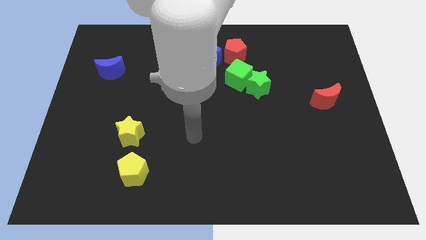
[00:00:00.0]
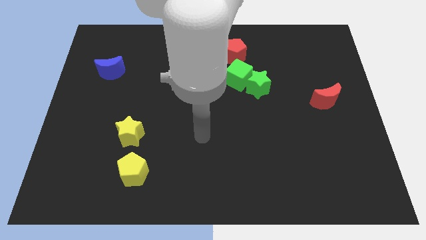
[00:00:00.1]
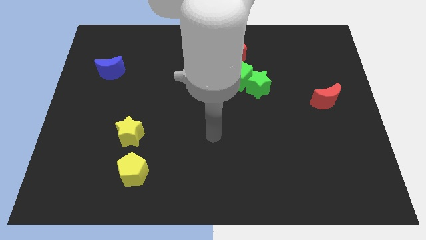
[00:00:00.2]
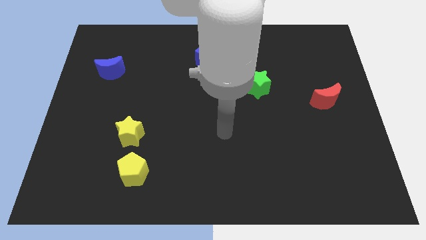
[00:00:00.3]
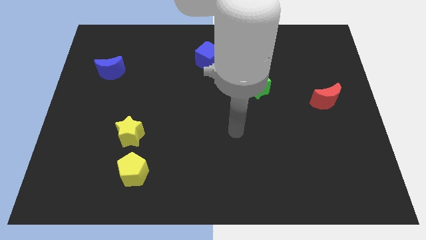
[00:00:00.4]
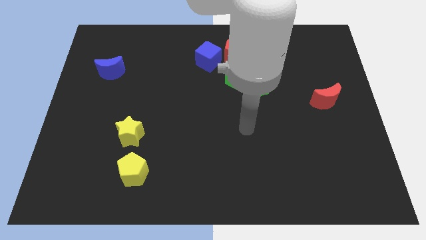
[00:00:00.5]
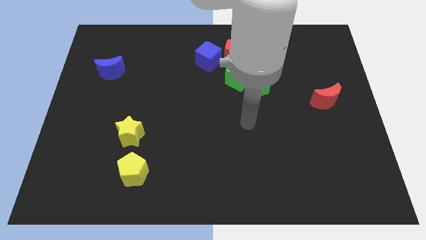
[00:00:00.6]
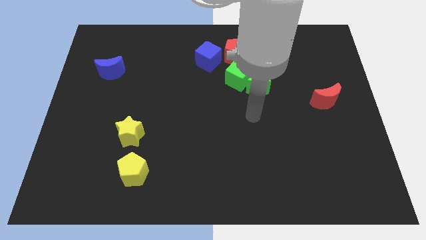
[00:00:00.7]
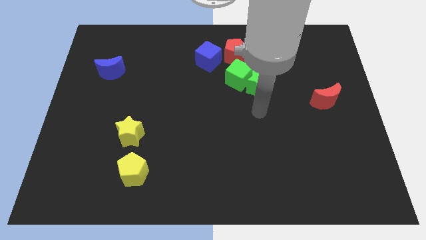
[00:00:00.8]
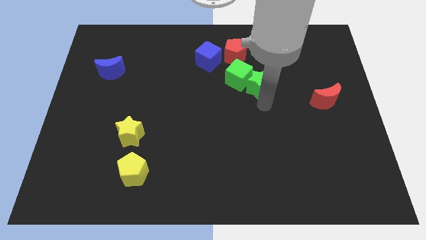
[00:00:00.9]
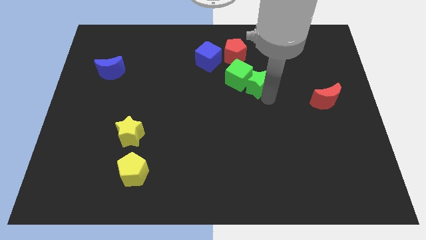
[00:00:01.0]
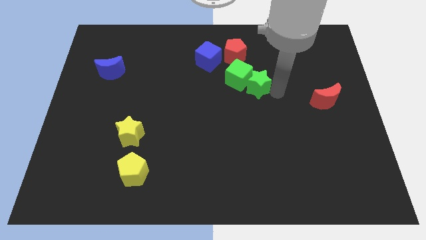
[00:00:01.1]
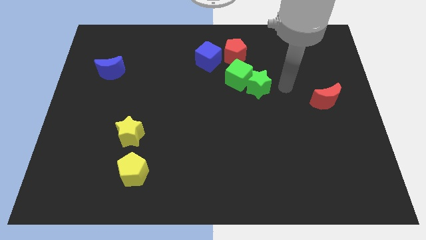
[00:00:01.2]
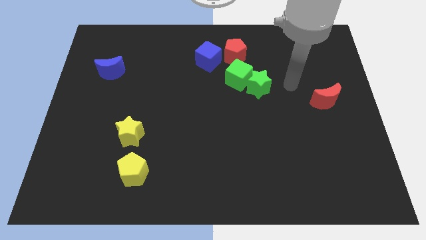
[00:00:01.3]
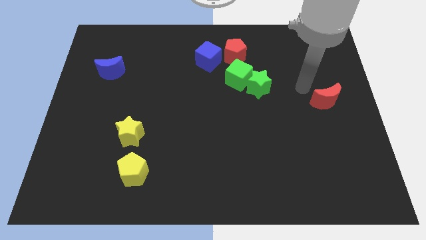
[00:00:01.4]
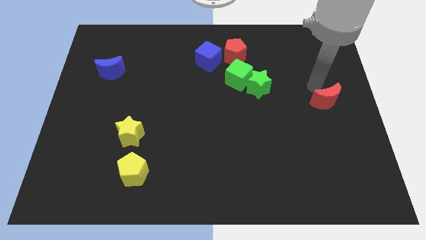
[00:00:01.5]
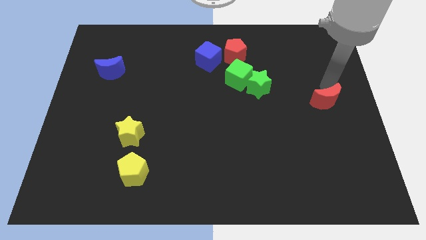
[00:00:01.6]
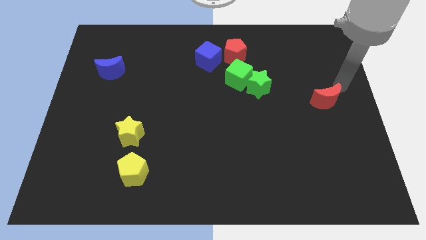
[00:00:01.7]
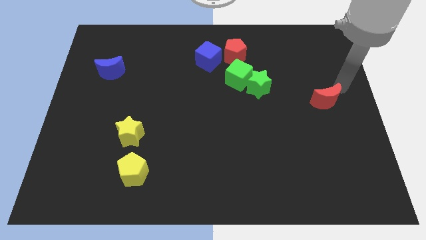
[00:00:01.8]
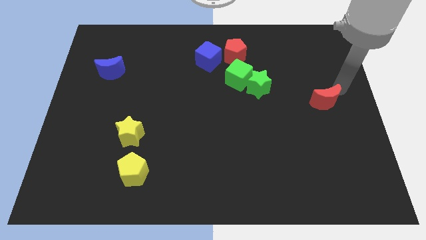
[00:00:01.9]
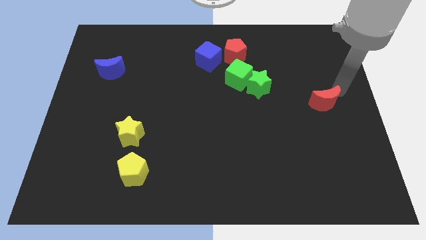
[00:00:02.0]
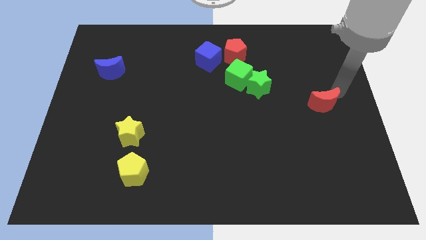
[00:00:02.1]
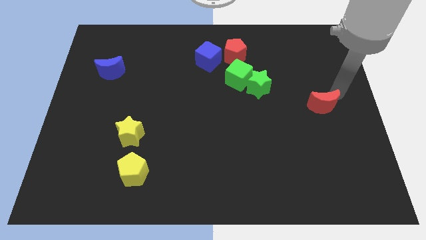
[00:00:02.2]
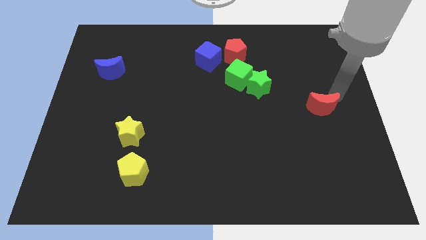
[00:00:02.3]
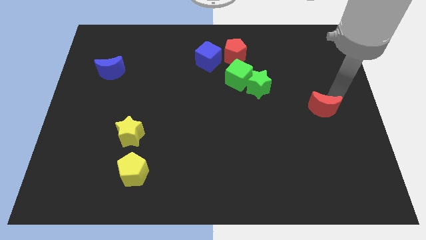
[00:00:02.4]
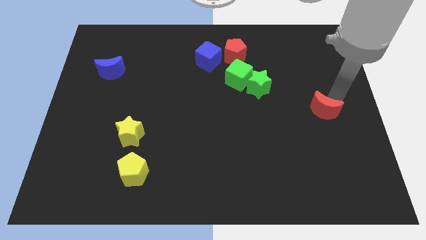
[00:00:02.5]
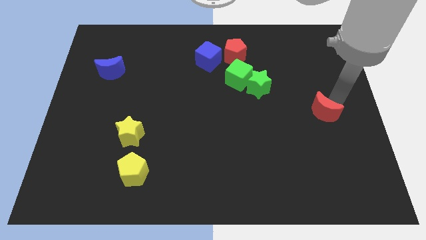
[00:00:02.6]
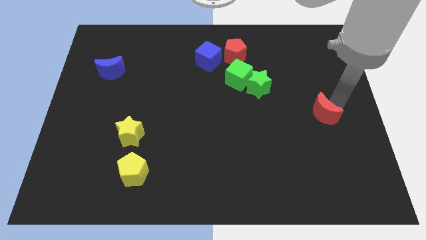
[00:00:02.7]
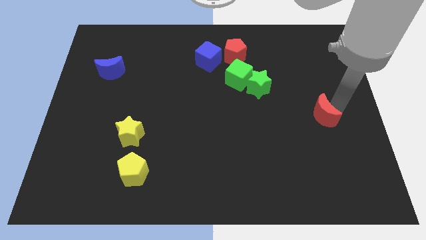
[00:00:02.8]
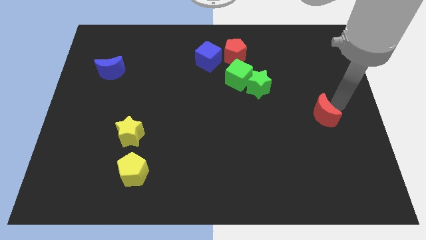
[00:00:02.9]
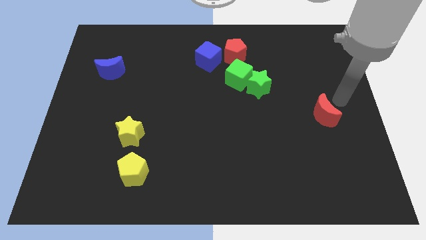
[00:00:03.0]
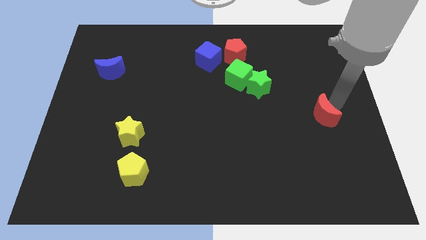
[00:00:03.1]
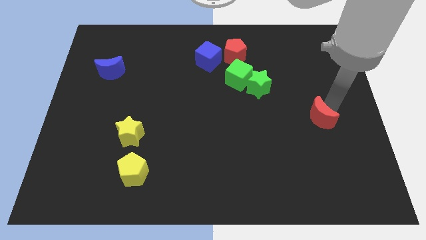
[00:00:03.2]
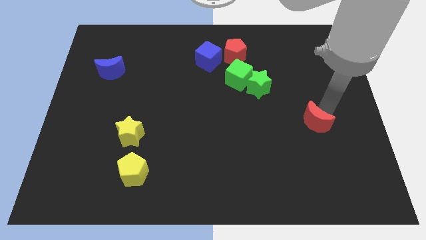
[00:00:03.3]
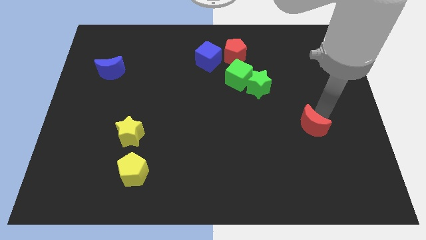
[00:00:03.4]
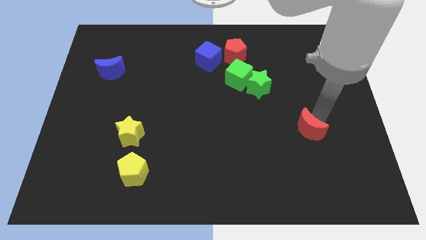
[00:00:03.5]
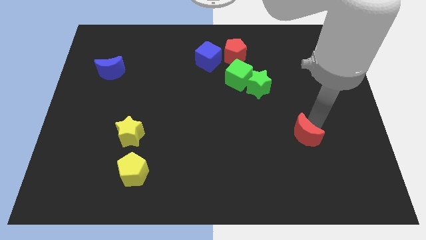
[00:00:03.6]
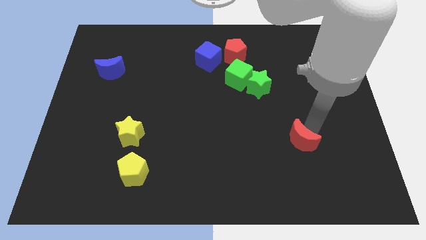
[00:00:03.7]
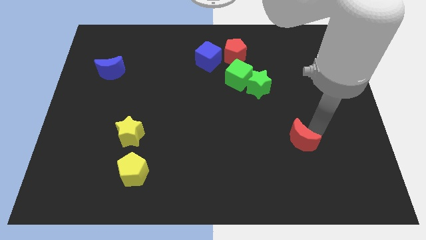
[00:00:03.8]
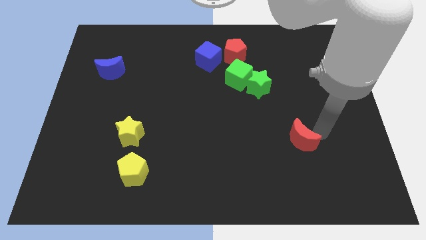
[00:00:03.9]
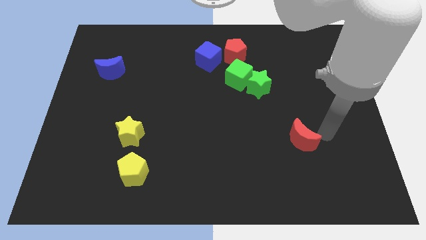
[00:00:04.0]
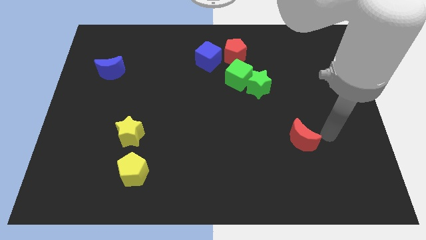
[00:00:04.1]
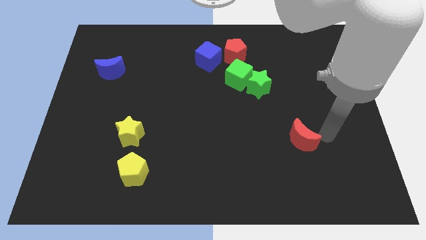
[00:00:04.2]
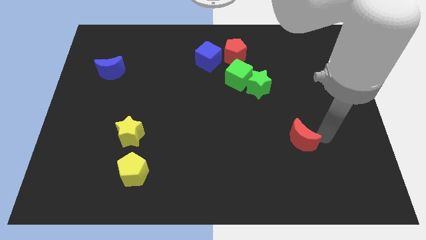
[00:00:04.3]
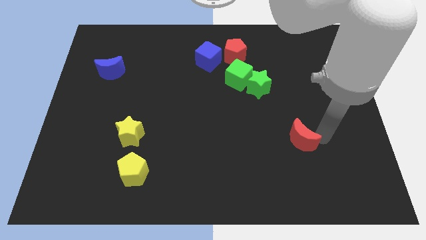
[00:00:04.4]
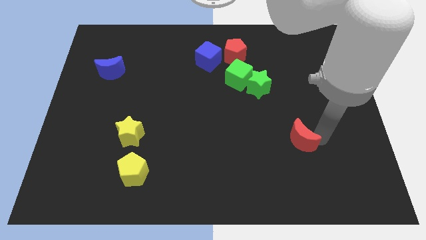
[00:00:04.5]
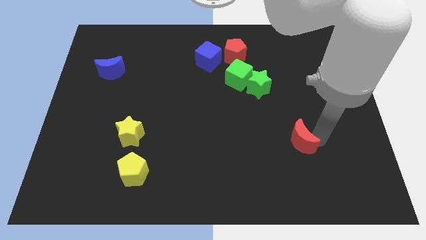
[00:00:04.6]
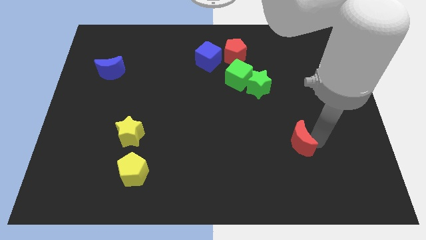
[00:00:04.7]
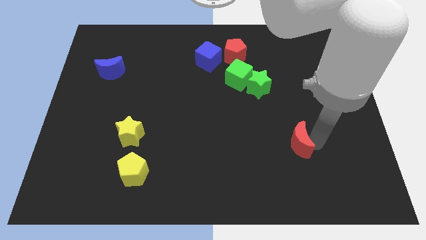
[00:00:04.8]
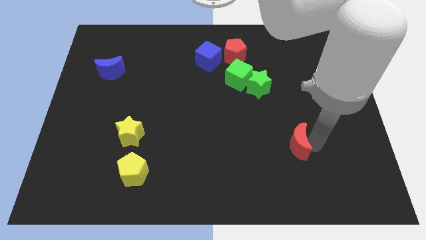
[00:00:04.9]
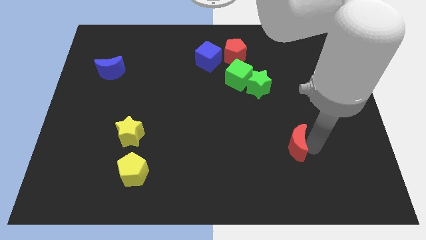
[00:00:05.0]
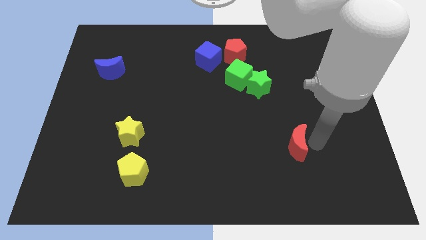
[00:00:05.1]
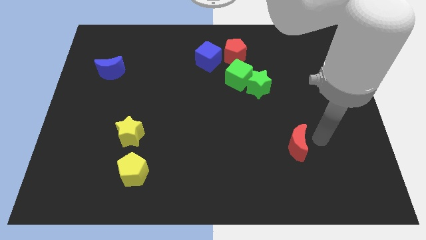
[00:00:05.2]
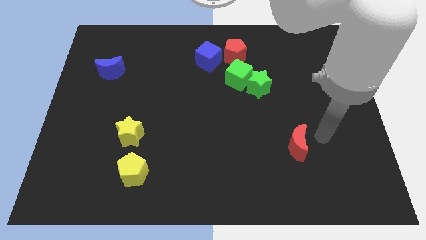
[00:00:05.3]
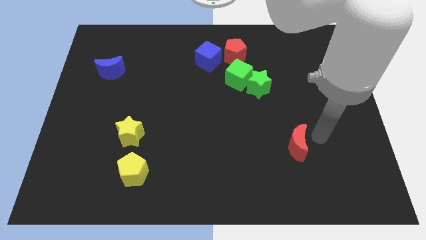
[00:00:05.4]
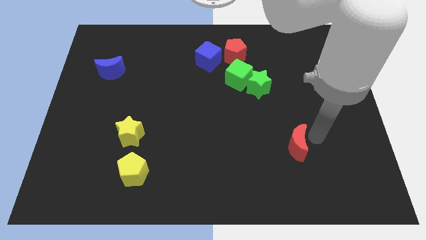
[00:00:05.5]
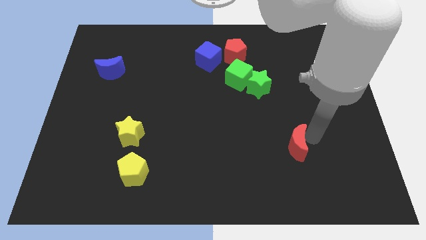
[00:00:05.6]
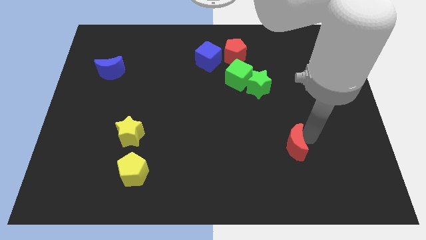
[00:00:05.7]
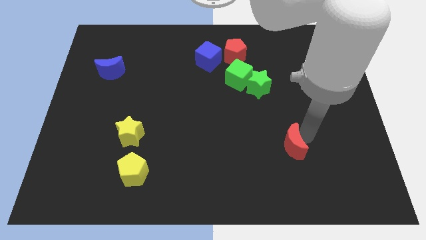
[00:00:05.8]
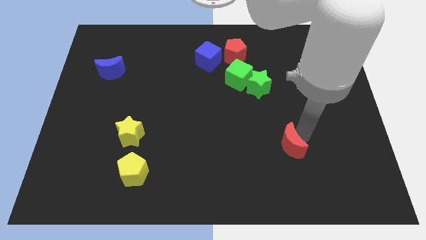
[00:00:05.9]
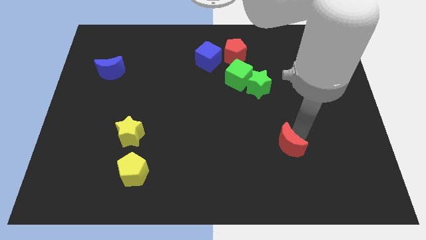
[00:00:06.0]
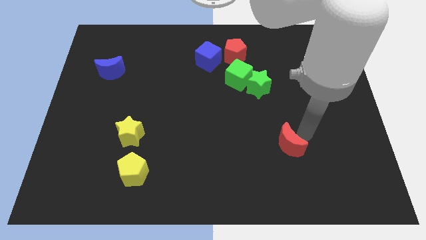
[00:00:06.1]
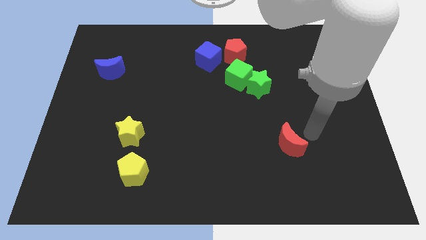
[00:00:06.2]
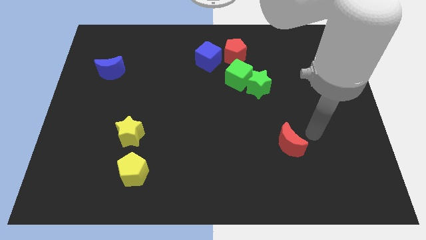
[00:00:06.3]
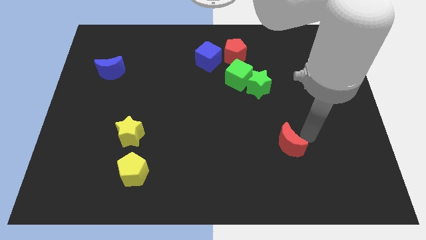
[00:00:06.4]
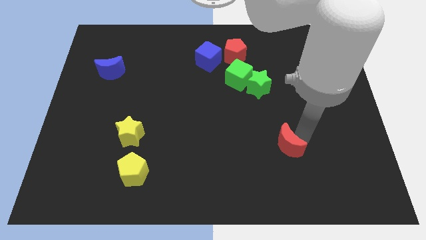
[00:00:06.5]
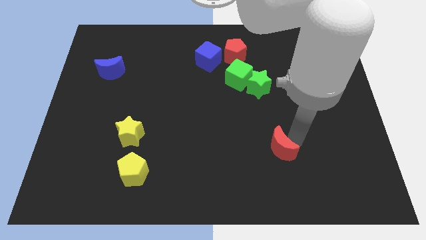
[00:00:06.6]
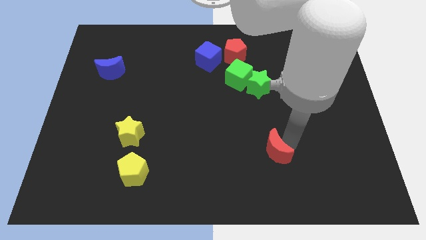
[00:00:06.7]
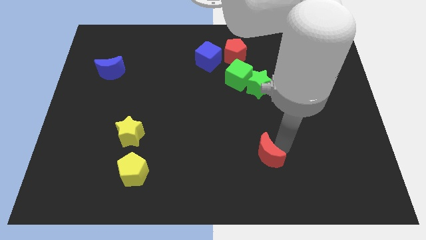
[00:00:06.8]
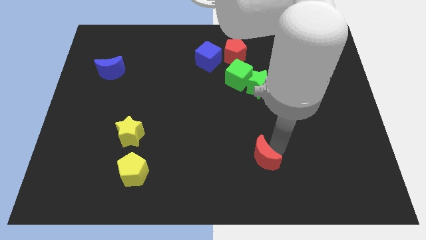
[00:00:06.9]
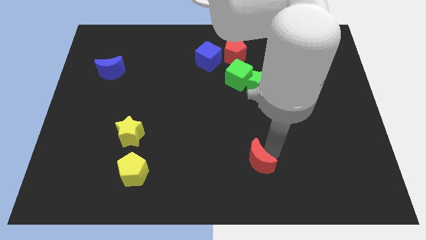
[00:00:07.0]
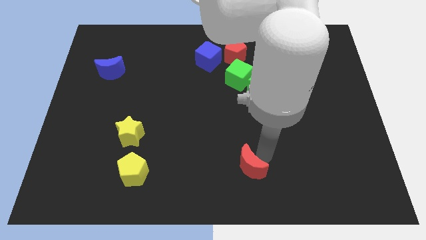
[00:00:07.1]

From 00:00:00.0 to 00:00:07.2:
slide the red moon to the bottom side
